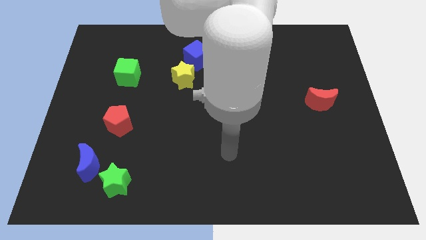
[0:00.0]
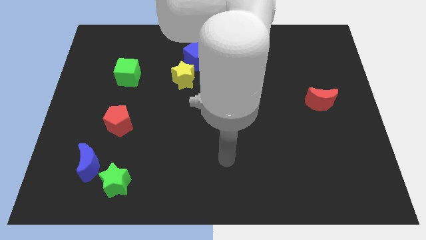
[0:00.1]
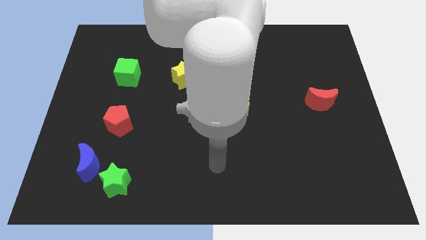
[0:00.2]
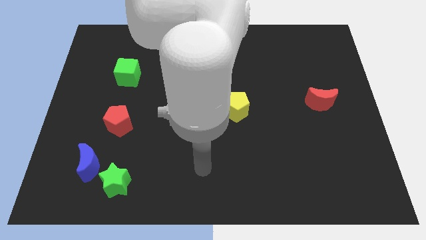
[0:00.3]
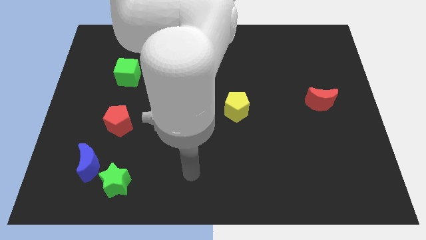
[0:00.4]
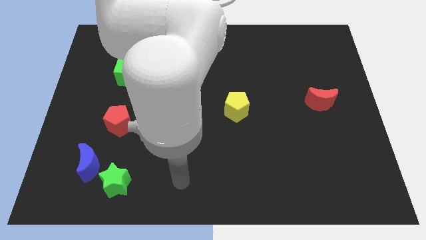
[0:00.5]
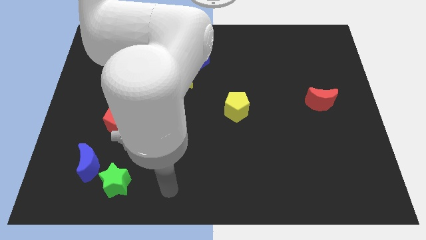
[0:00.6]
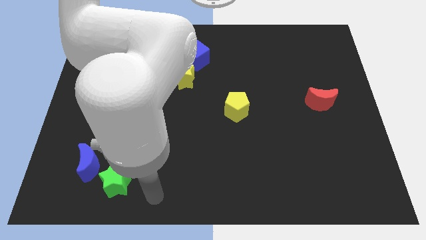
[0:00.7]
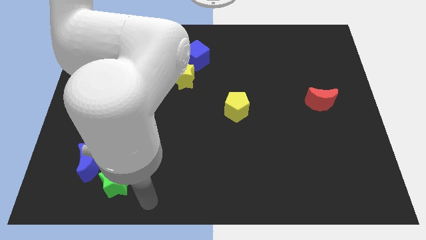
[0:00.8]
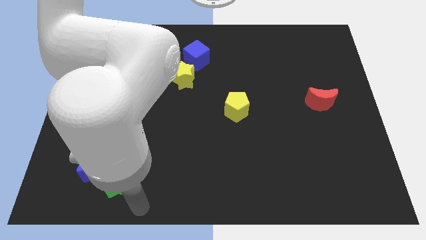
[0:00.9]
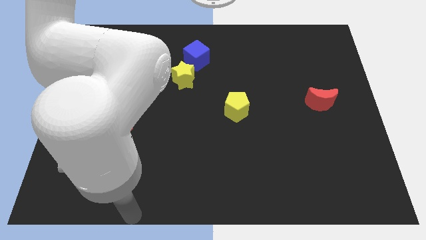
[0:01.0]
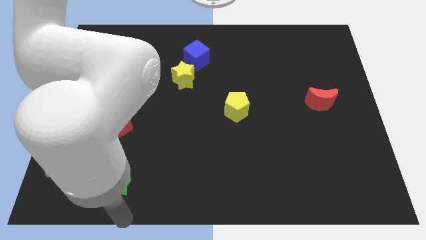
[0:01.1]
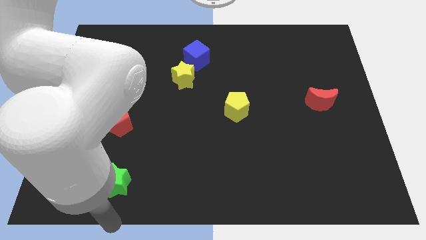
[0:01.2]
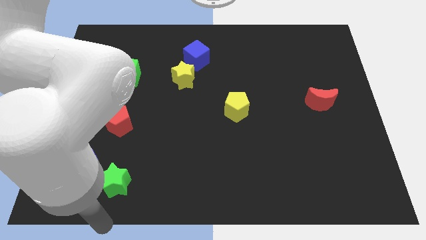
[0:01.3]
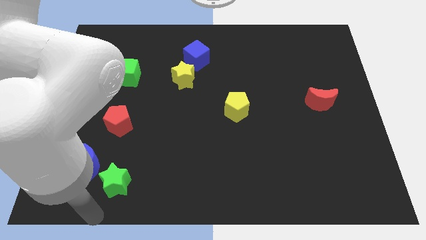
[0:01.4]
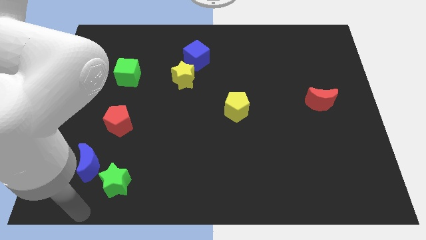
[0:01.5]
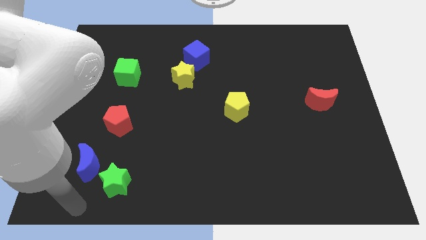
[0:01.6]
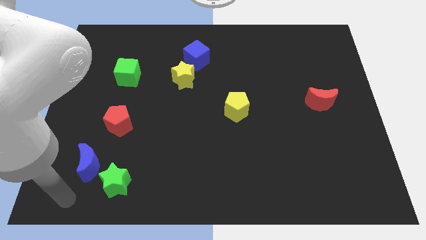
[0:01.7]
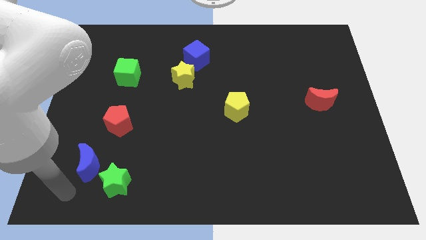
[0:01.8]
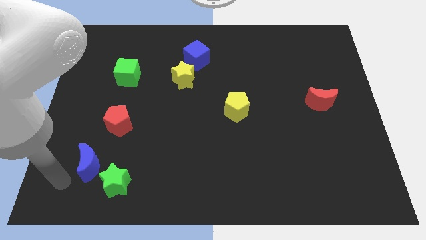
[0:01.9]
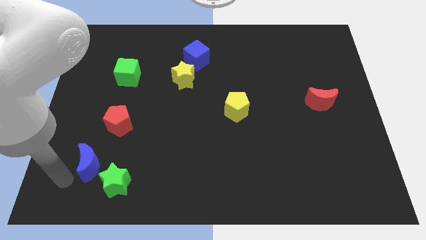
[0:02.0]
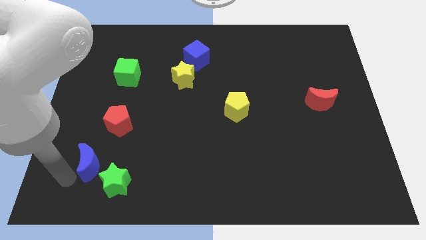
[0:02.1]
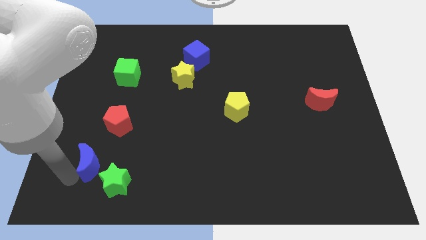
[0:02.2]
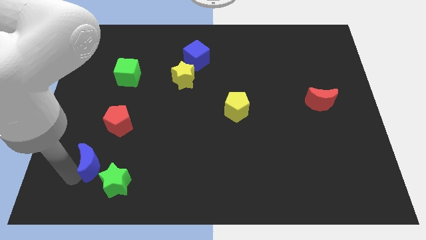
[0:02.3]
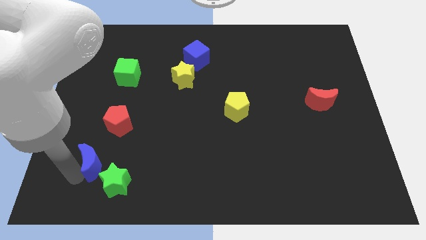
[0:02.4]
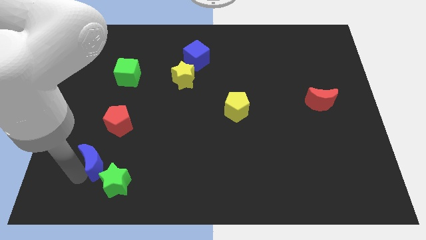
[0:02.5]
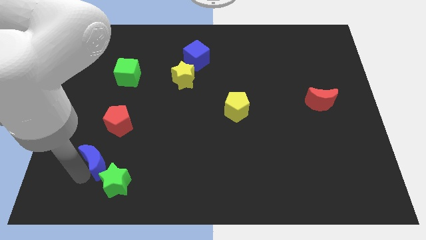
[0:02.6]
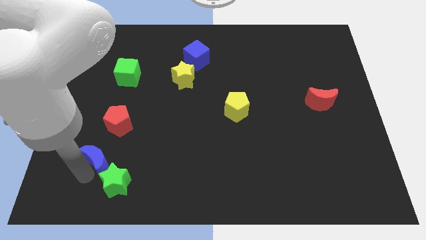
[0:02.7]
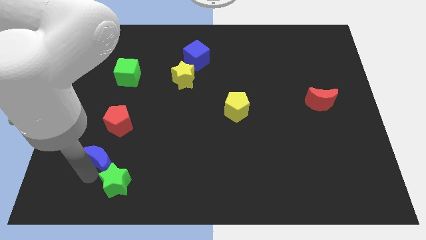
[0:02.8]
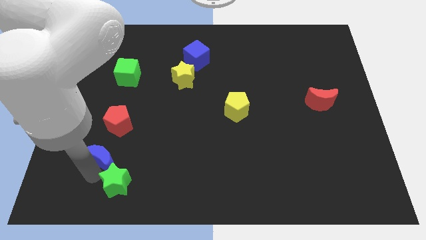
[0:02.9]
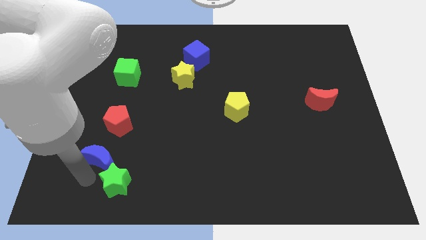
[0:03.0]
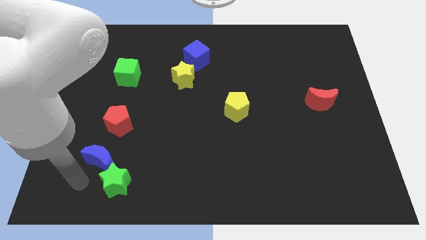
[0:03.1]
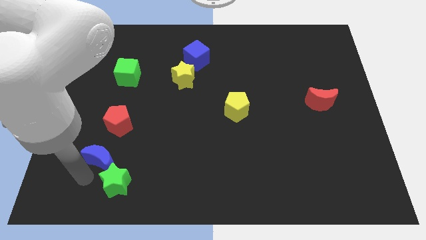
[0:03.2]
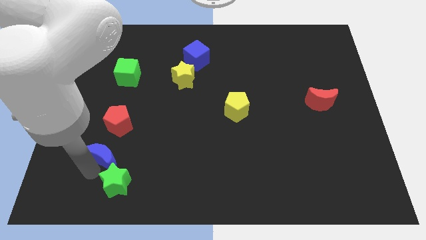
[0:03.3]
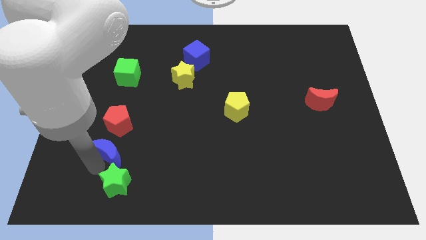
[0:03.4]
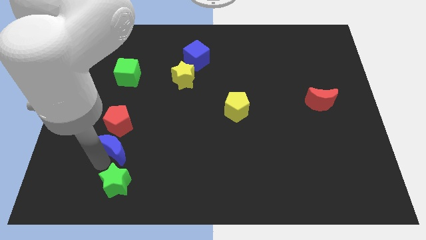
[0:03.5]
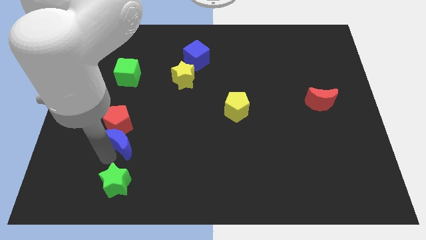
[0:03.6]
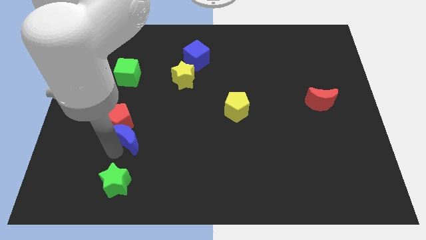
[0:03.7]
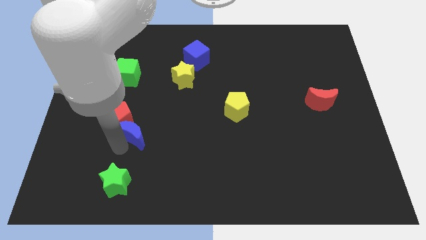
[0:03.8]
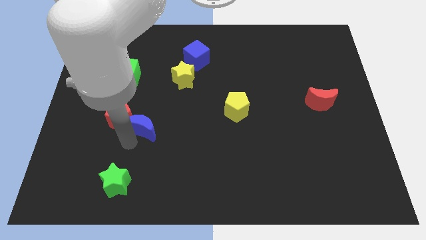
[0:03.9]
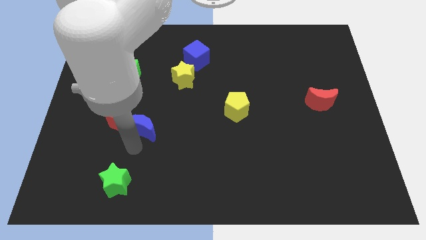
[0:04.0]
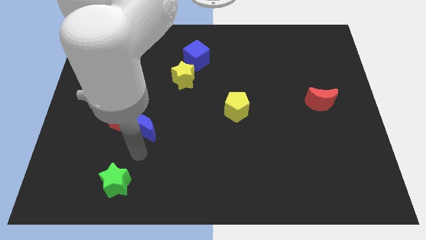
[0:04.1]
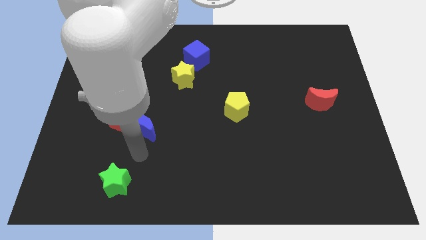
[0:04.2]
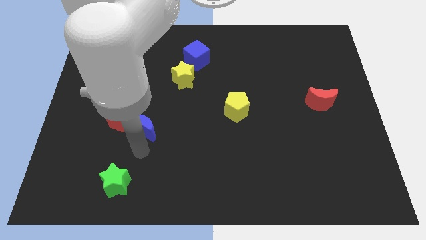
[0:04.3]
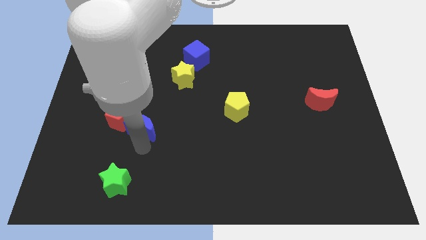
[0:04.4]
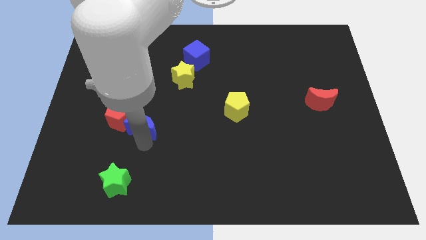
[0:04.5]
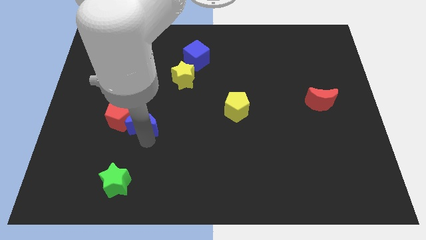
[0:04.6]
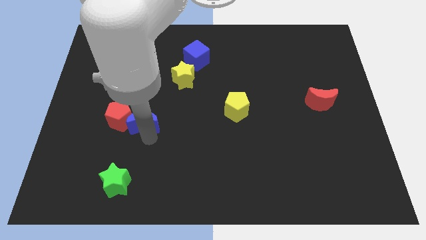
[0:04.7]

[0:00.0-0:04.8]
move the blue moon to the top right side of the red pentagon

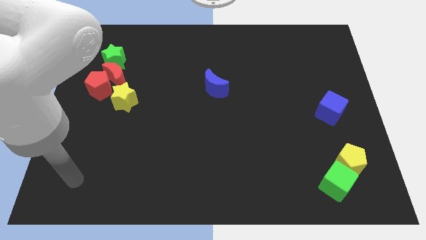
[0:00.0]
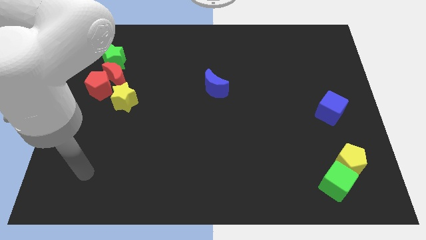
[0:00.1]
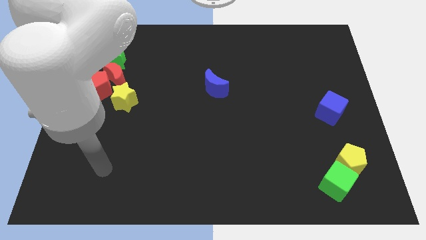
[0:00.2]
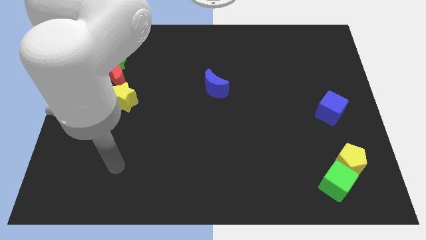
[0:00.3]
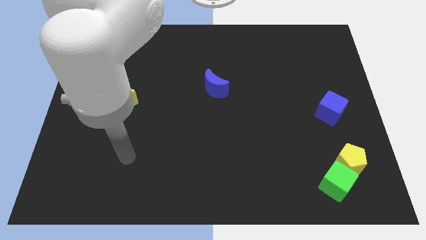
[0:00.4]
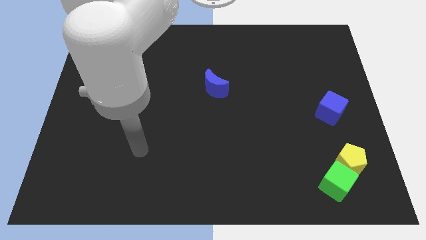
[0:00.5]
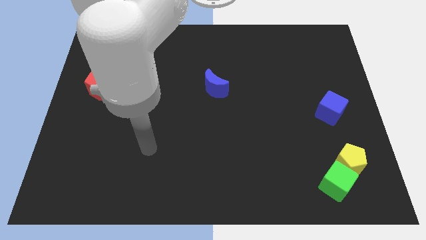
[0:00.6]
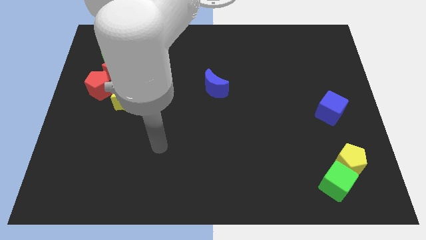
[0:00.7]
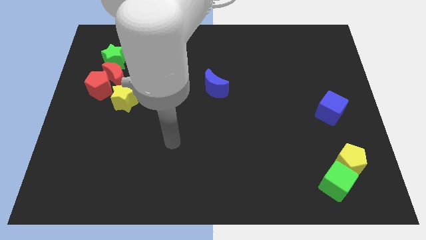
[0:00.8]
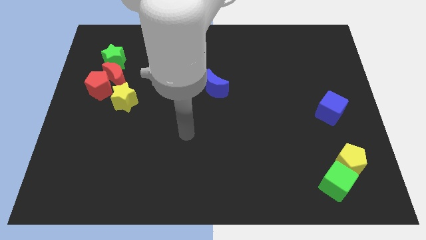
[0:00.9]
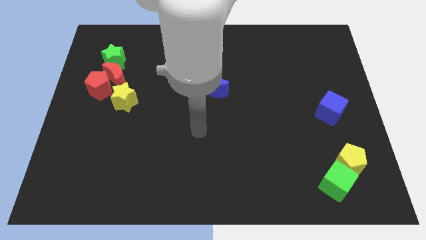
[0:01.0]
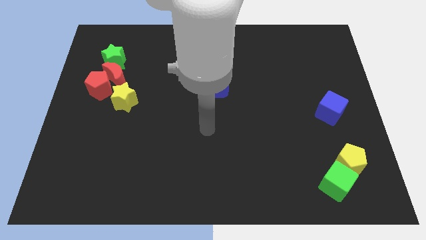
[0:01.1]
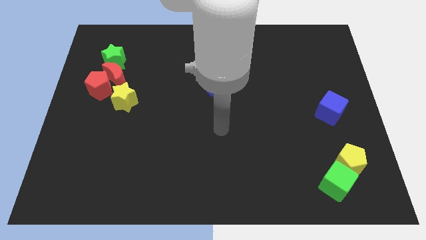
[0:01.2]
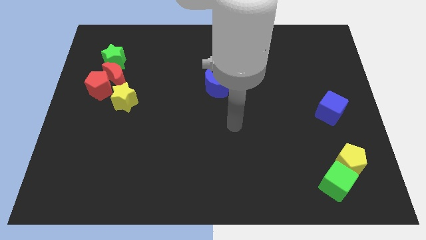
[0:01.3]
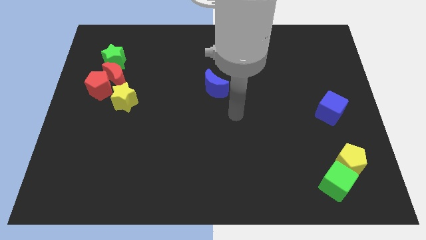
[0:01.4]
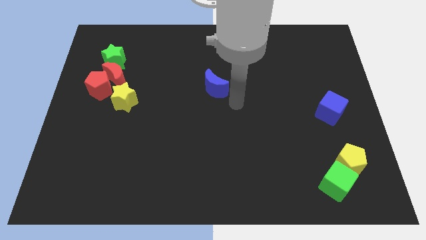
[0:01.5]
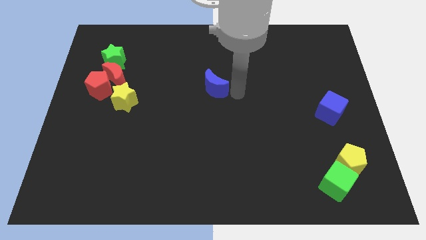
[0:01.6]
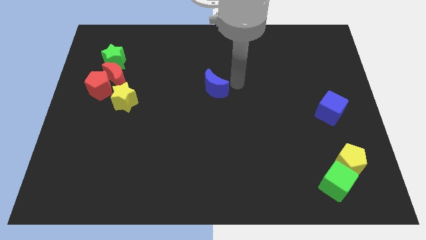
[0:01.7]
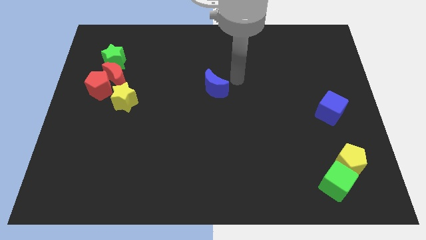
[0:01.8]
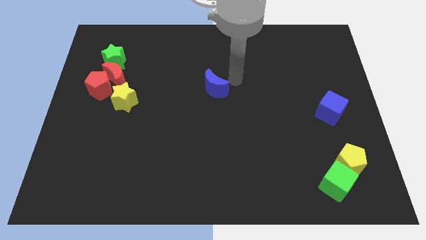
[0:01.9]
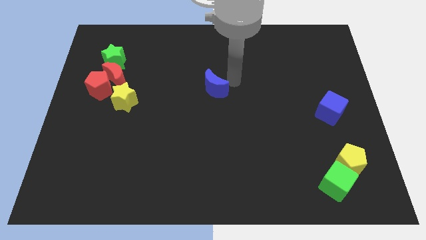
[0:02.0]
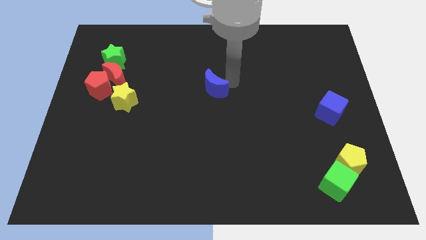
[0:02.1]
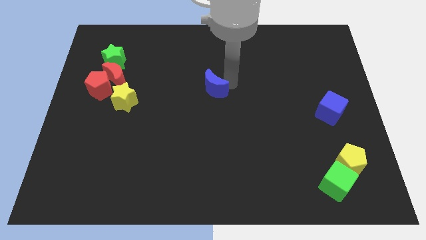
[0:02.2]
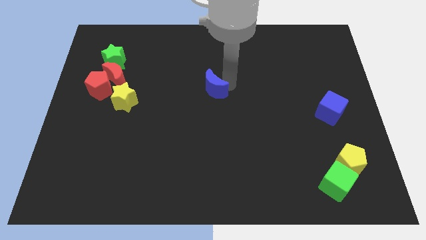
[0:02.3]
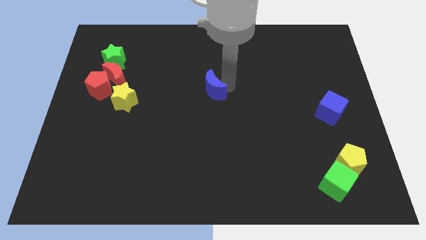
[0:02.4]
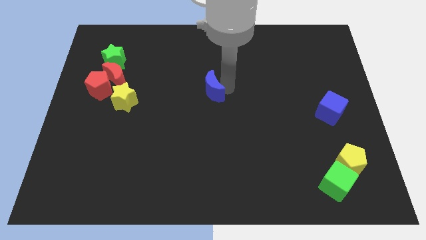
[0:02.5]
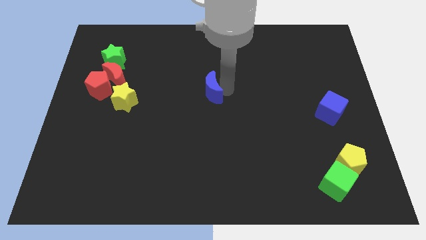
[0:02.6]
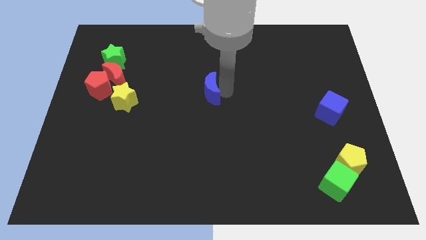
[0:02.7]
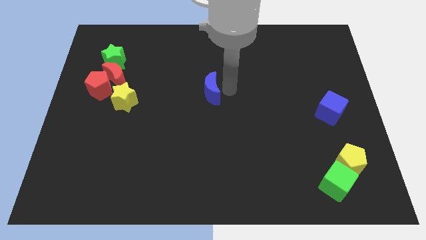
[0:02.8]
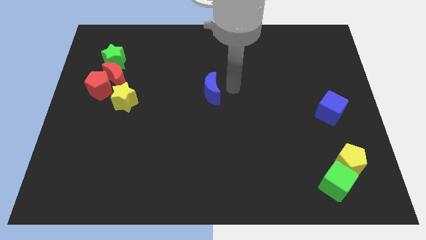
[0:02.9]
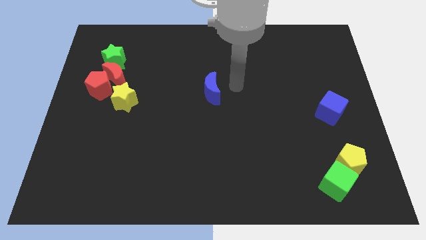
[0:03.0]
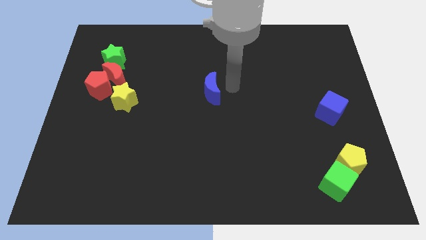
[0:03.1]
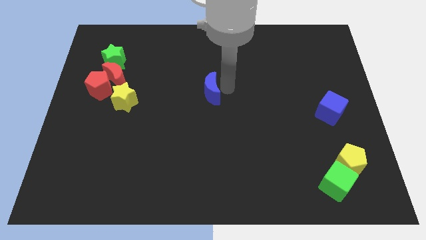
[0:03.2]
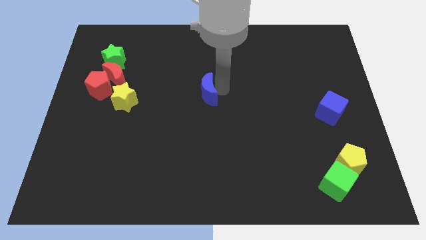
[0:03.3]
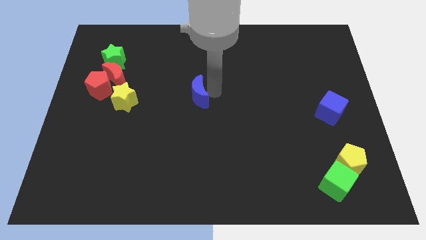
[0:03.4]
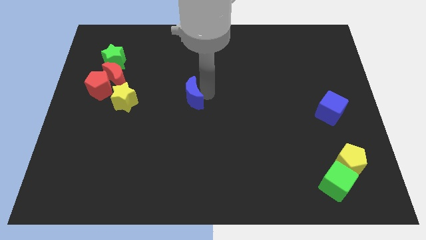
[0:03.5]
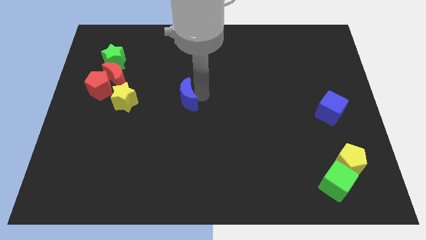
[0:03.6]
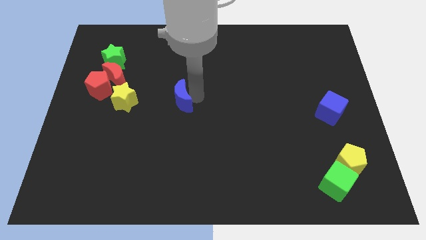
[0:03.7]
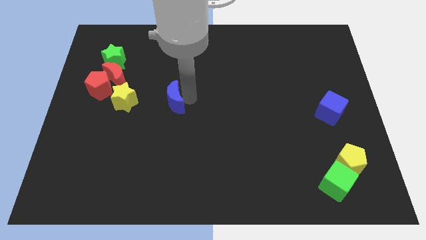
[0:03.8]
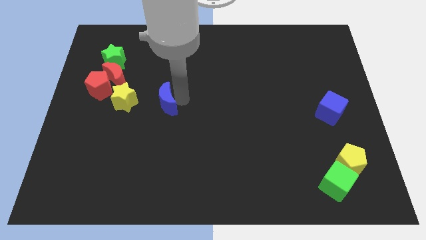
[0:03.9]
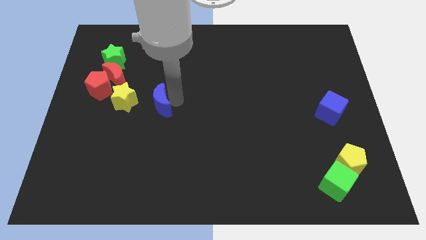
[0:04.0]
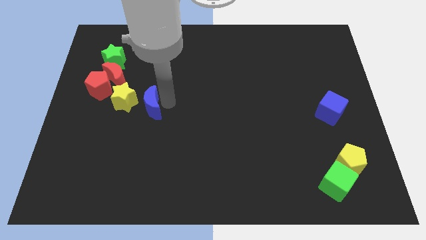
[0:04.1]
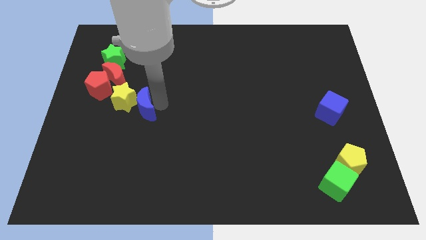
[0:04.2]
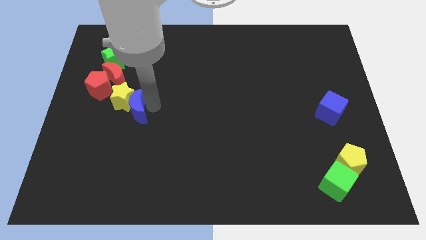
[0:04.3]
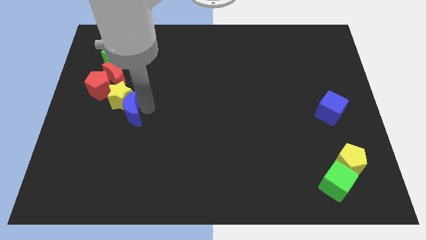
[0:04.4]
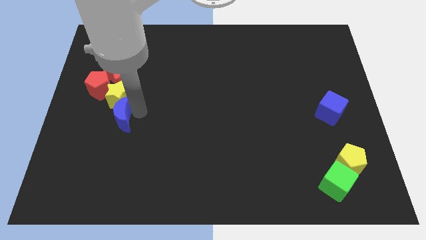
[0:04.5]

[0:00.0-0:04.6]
push the blue moon to the bottom left of the yellow star
